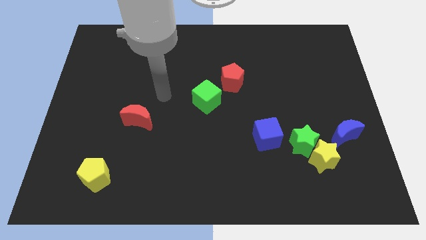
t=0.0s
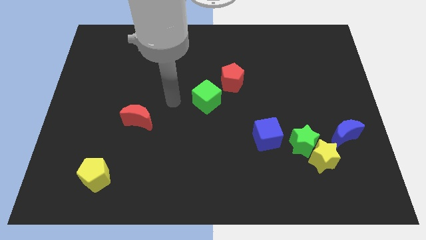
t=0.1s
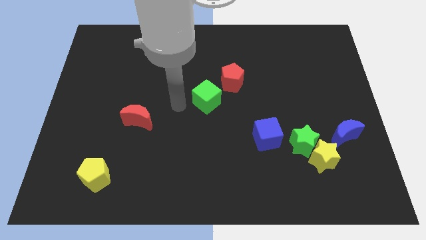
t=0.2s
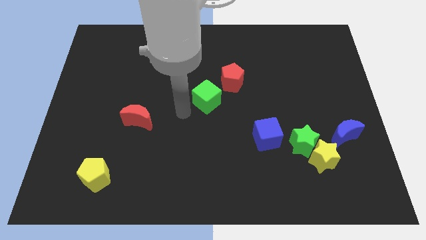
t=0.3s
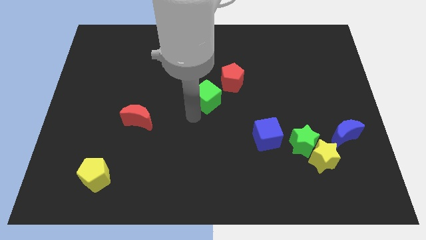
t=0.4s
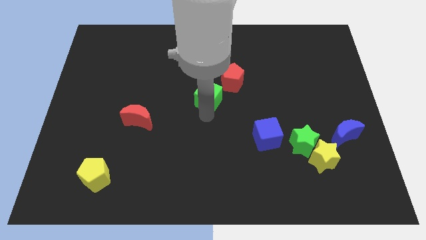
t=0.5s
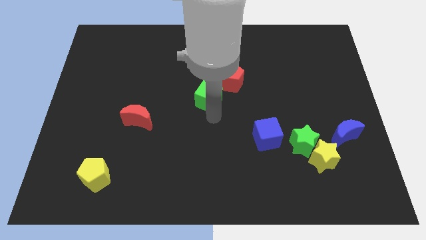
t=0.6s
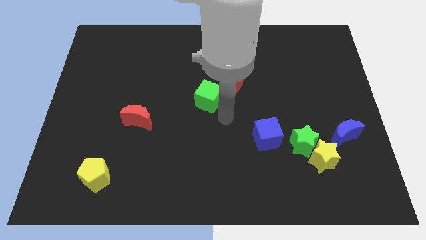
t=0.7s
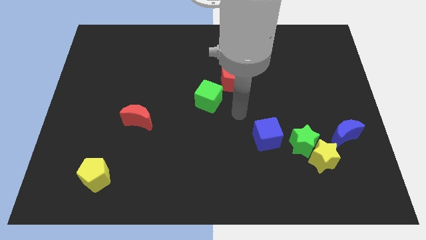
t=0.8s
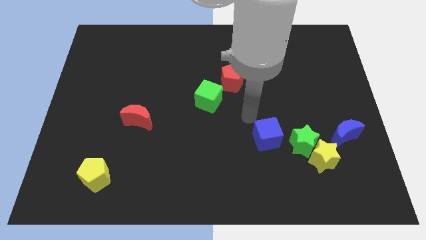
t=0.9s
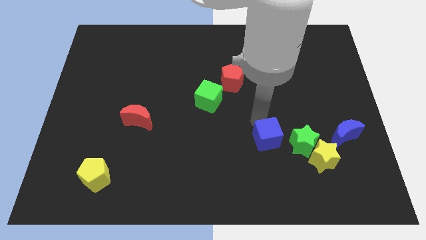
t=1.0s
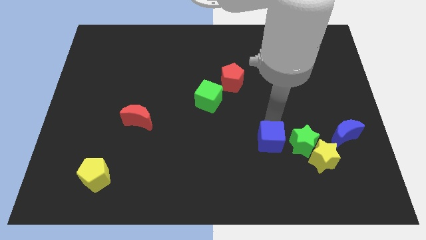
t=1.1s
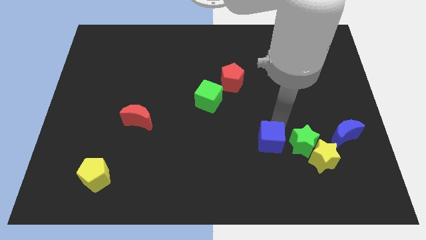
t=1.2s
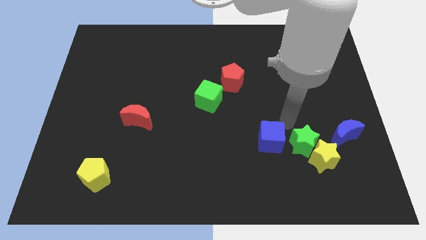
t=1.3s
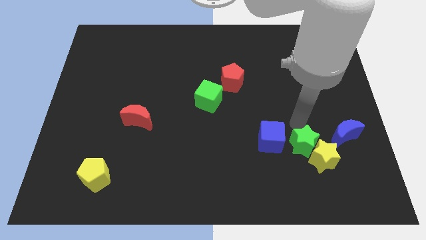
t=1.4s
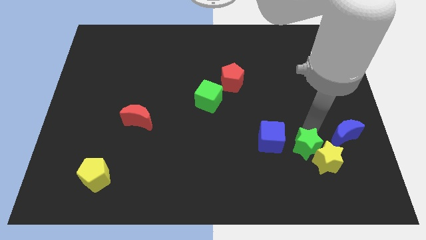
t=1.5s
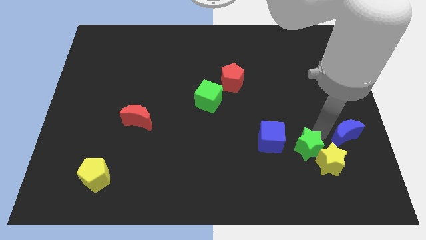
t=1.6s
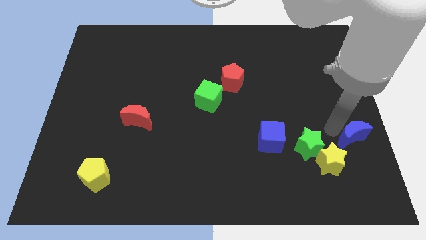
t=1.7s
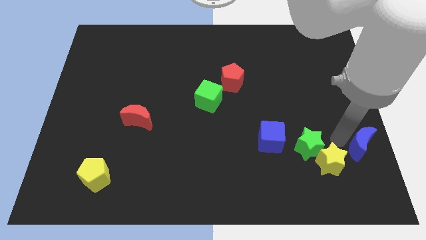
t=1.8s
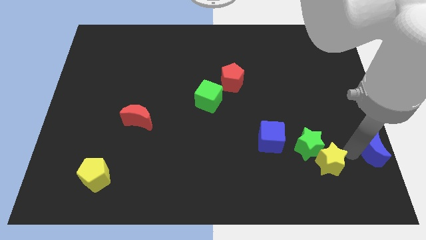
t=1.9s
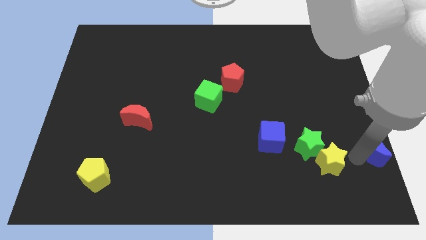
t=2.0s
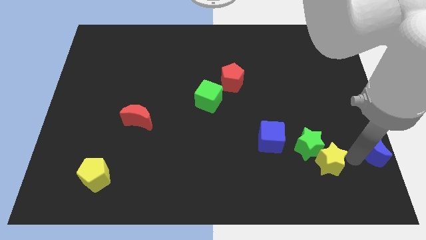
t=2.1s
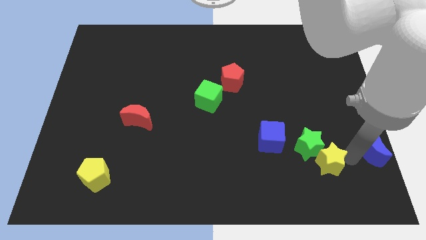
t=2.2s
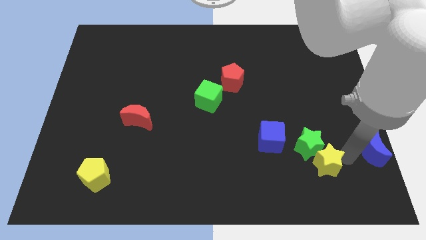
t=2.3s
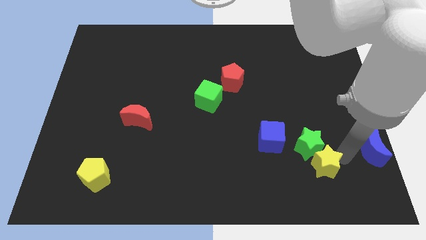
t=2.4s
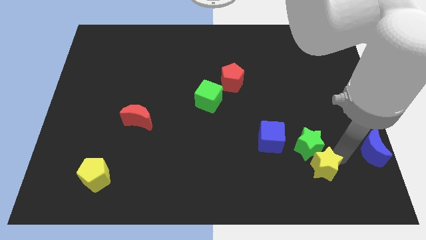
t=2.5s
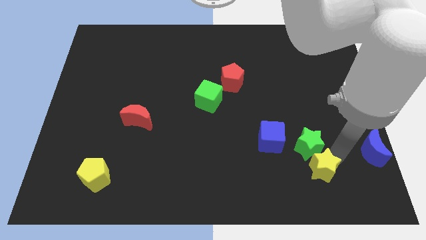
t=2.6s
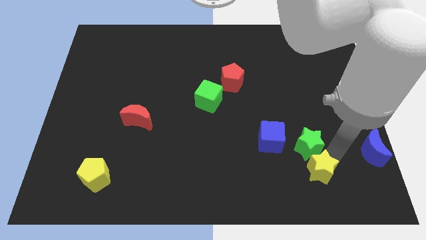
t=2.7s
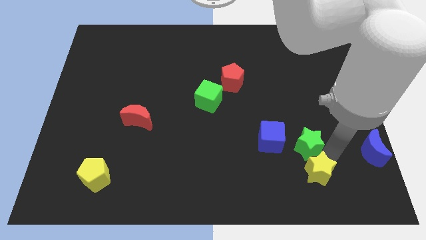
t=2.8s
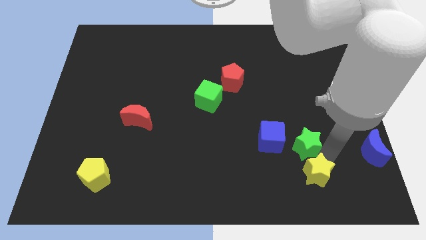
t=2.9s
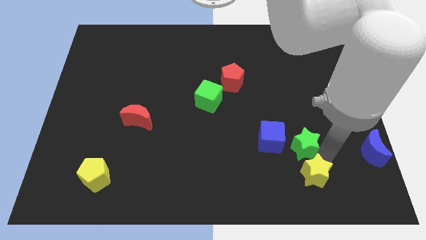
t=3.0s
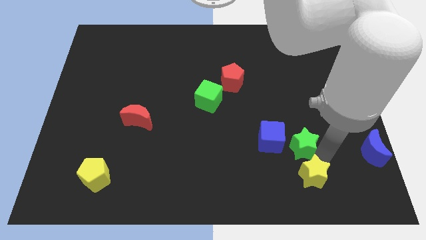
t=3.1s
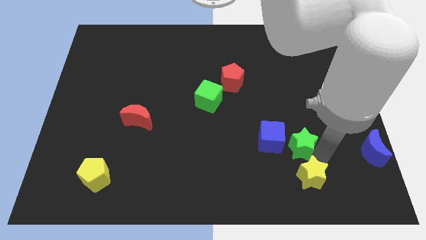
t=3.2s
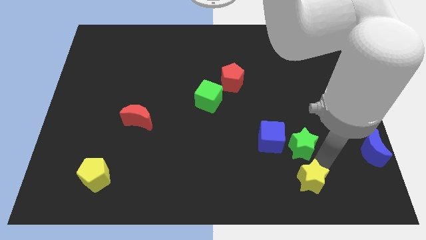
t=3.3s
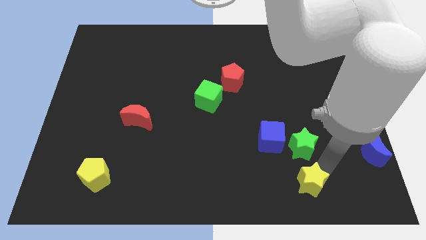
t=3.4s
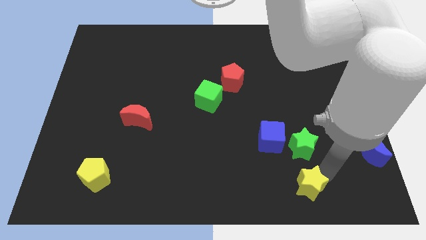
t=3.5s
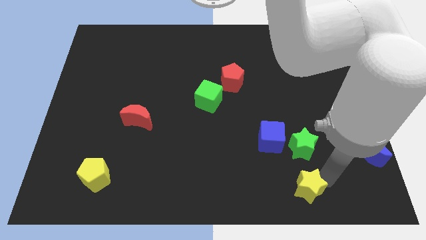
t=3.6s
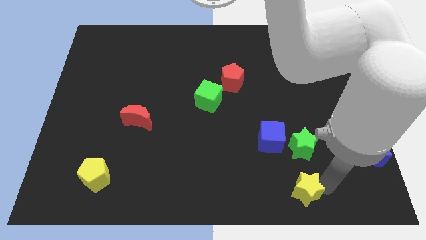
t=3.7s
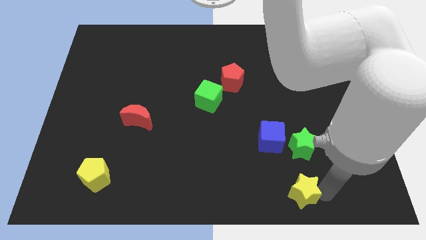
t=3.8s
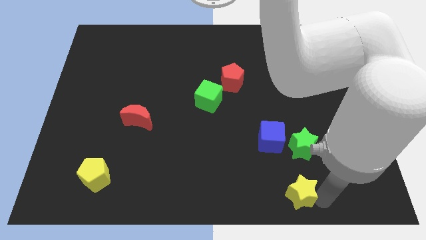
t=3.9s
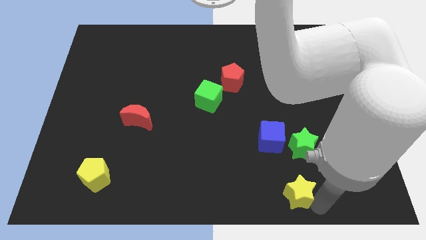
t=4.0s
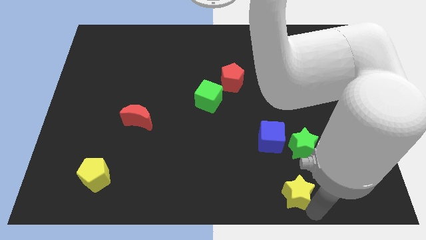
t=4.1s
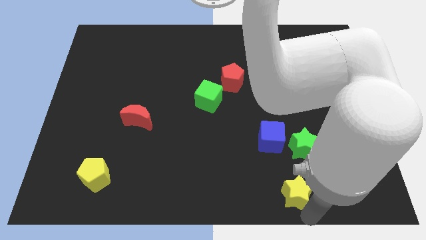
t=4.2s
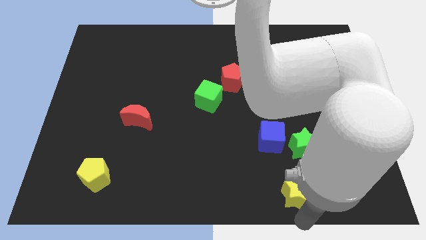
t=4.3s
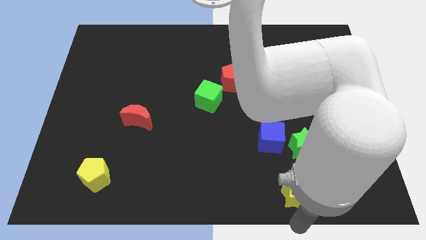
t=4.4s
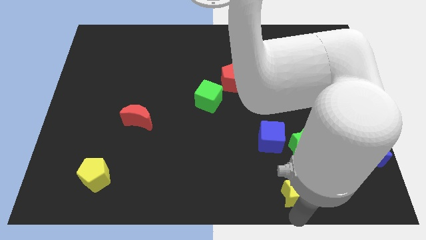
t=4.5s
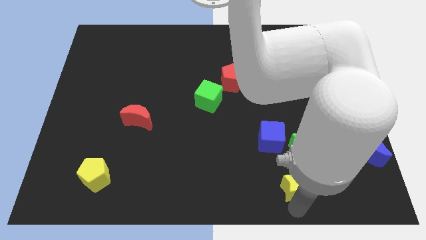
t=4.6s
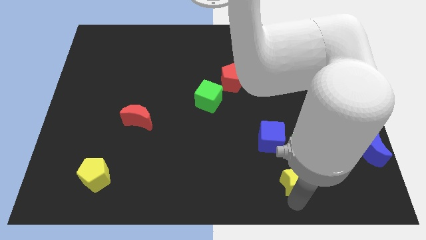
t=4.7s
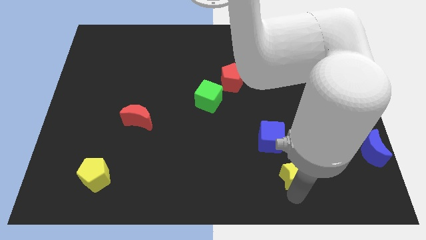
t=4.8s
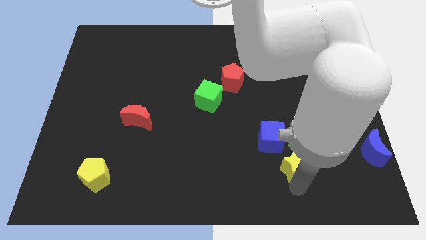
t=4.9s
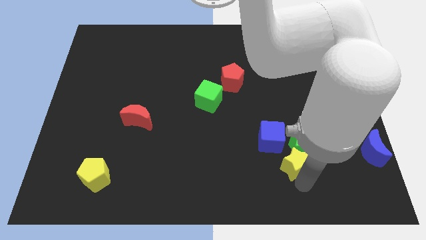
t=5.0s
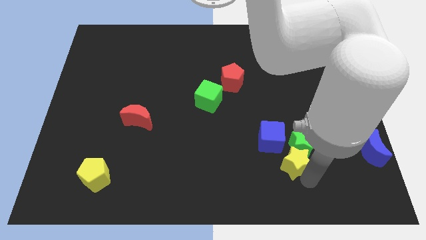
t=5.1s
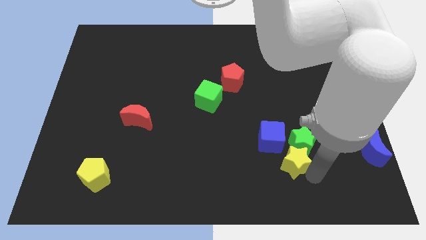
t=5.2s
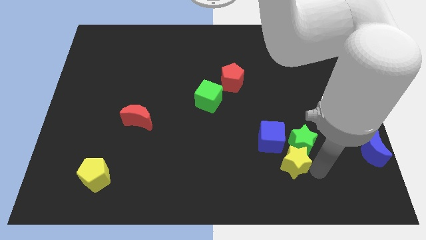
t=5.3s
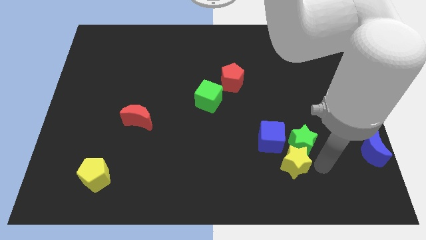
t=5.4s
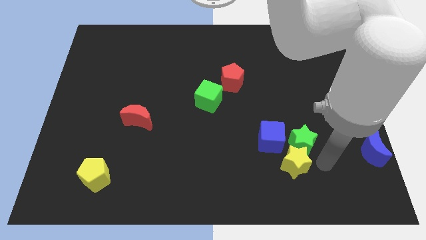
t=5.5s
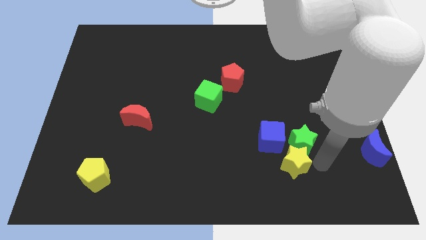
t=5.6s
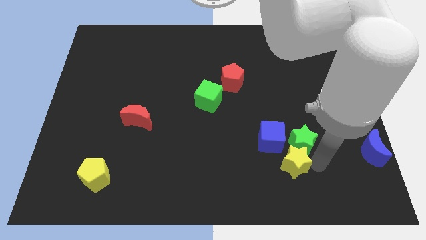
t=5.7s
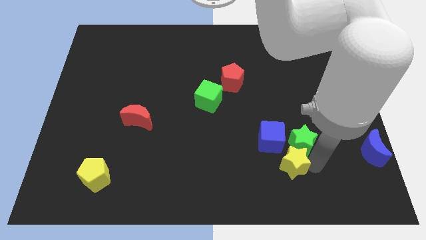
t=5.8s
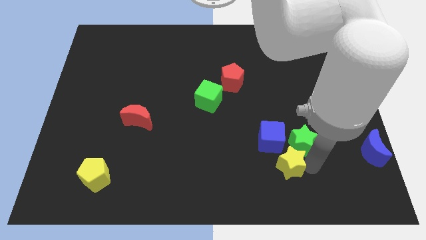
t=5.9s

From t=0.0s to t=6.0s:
slightly move the yellow star to the left

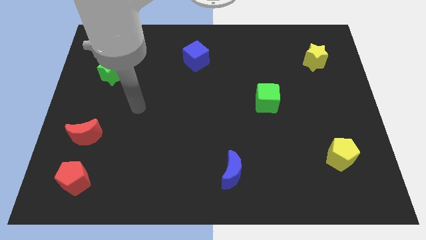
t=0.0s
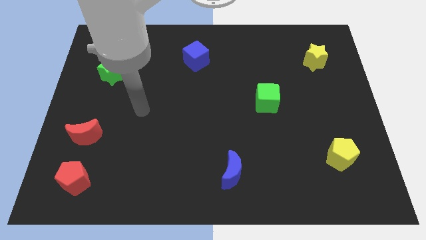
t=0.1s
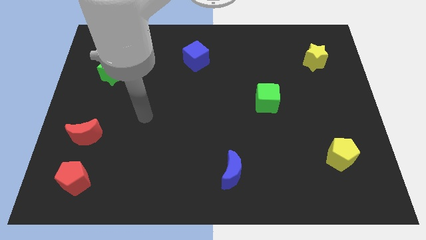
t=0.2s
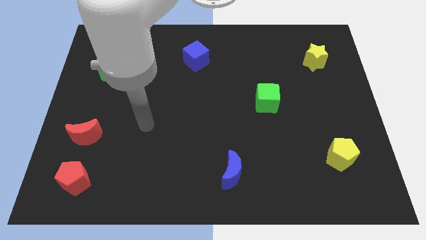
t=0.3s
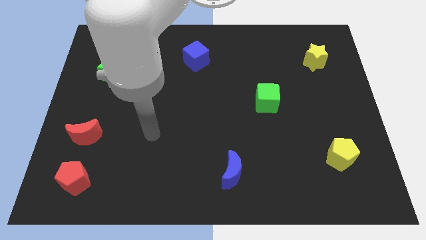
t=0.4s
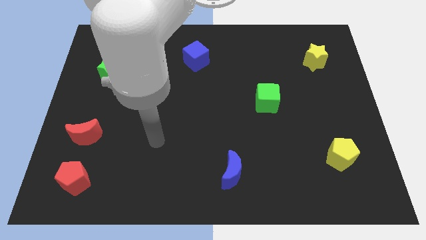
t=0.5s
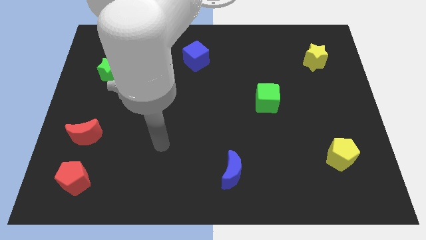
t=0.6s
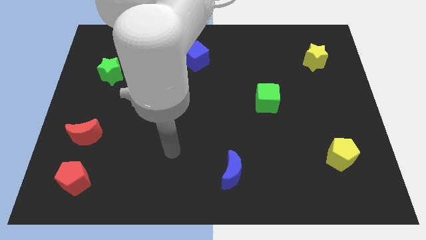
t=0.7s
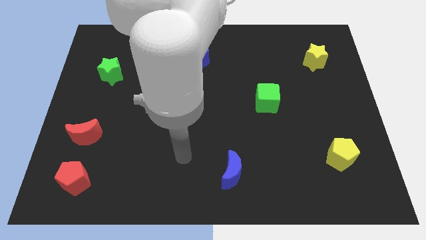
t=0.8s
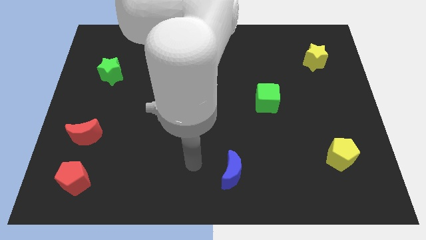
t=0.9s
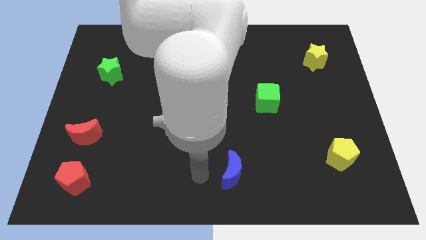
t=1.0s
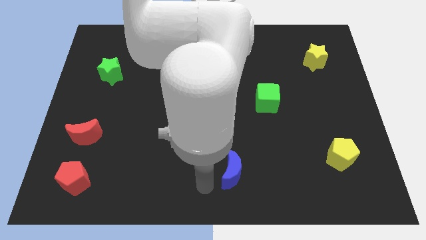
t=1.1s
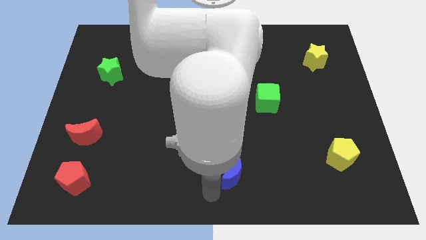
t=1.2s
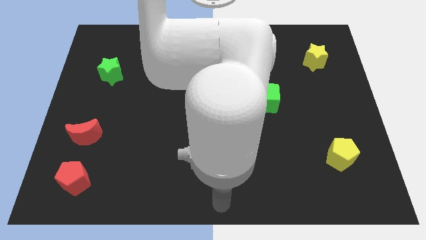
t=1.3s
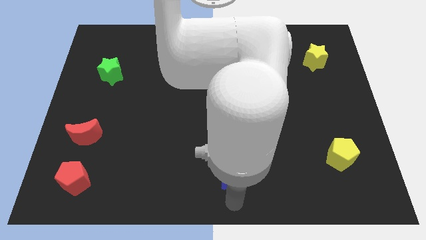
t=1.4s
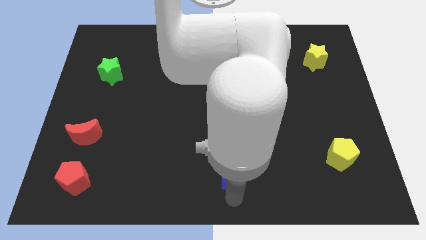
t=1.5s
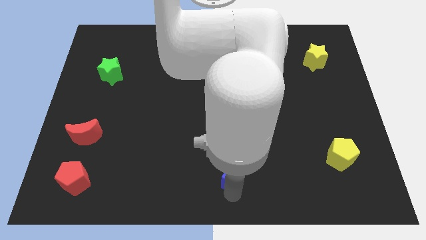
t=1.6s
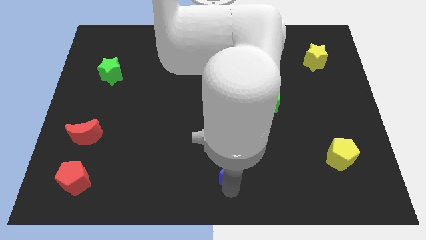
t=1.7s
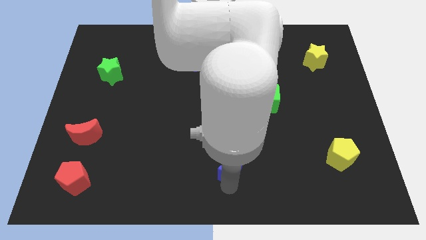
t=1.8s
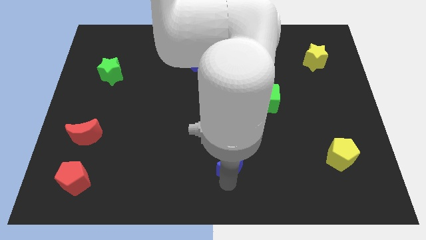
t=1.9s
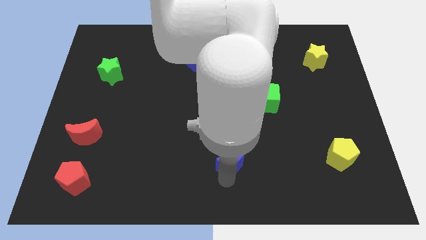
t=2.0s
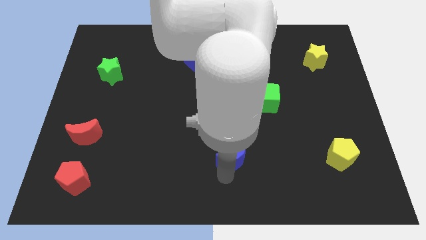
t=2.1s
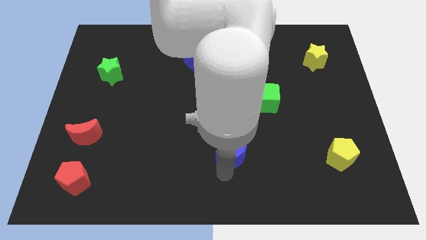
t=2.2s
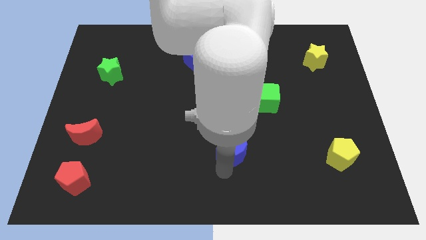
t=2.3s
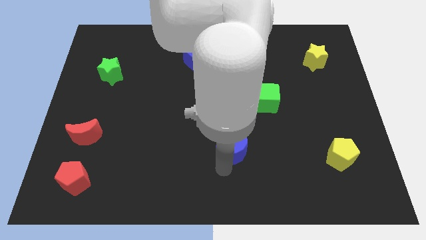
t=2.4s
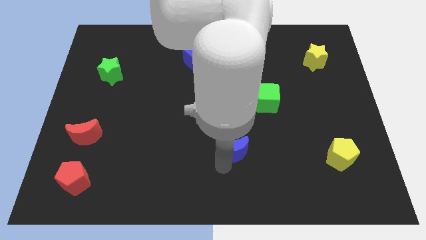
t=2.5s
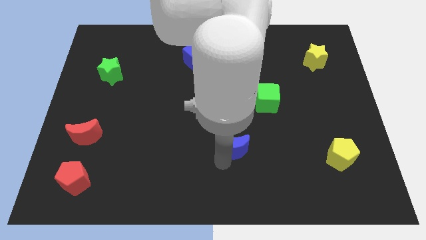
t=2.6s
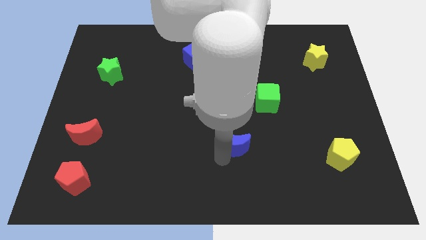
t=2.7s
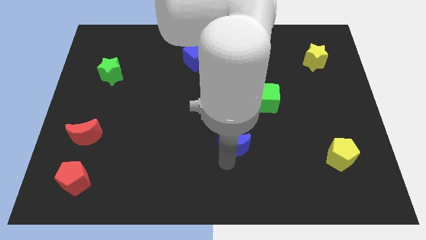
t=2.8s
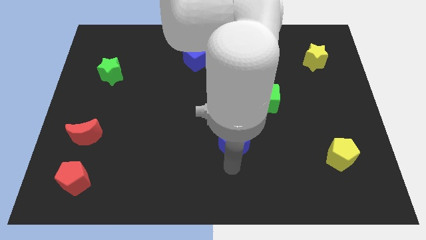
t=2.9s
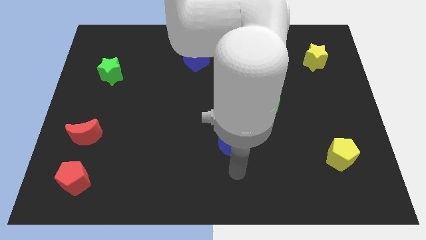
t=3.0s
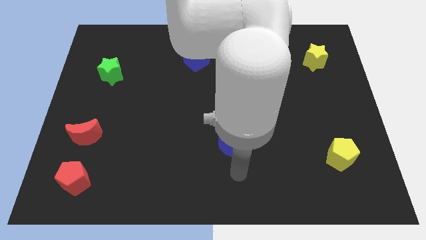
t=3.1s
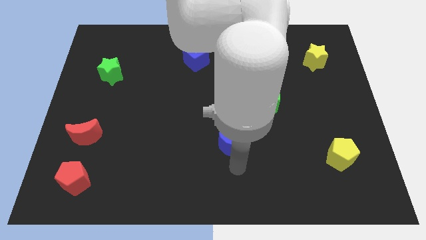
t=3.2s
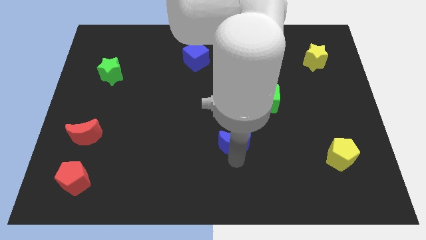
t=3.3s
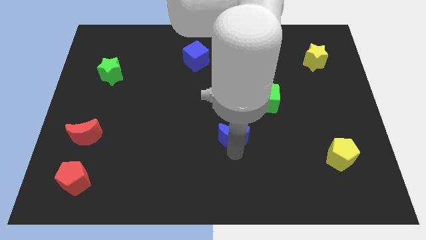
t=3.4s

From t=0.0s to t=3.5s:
slightly push the blue moon up
